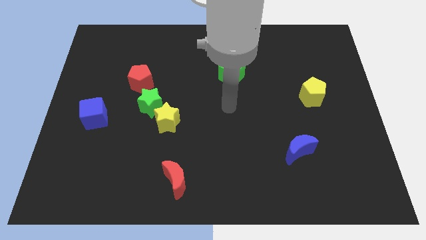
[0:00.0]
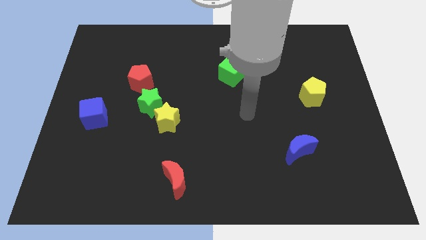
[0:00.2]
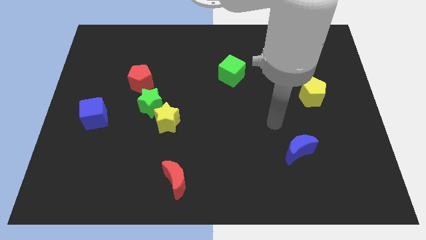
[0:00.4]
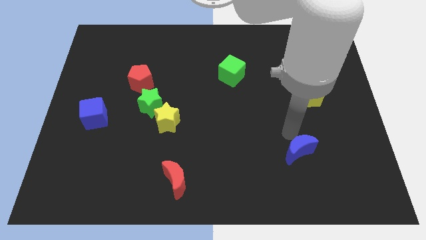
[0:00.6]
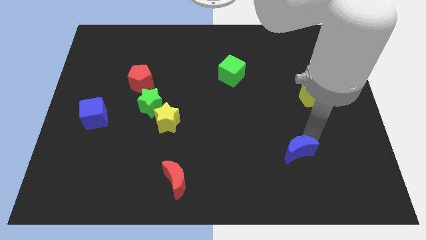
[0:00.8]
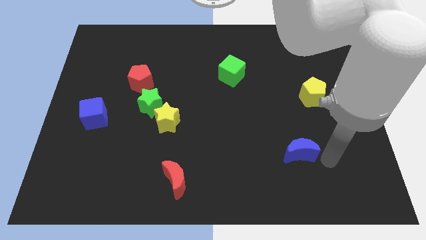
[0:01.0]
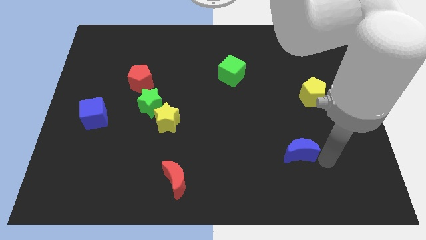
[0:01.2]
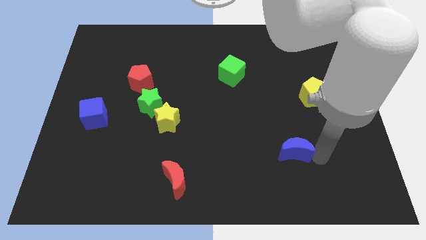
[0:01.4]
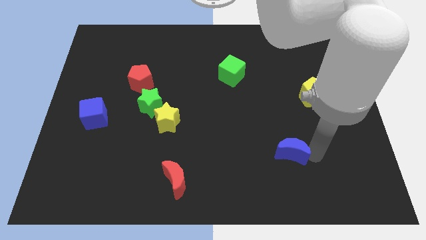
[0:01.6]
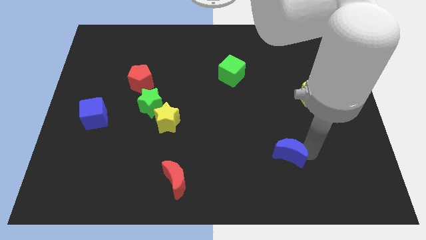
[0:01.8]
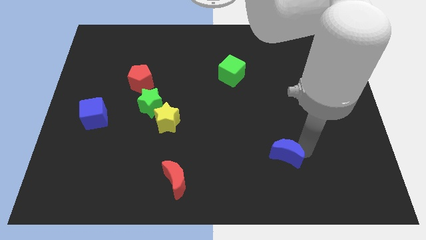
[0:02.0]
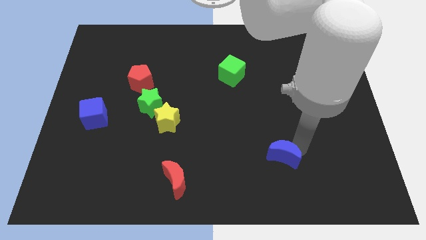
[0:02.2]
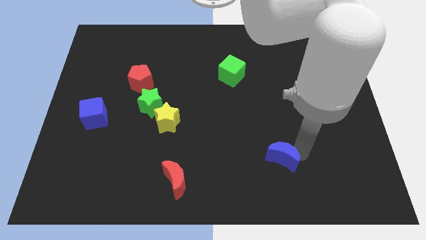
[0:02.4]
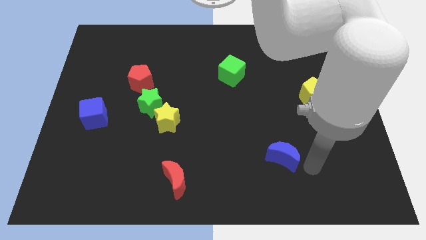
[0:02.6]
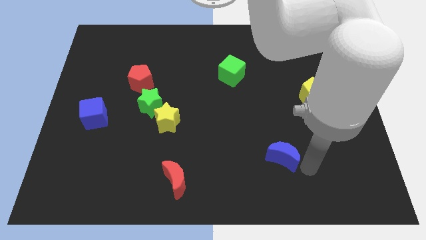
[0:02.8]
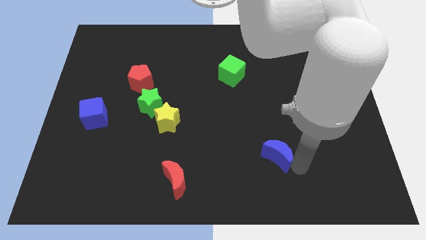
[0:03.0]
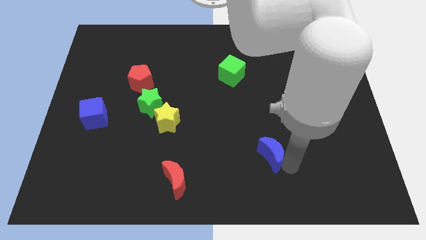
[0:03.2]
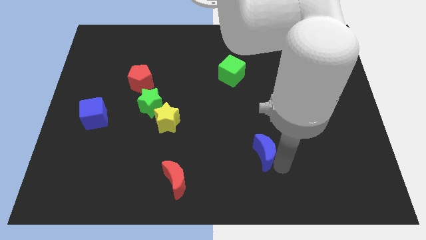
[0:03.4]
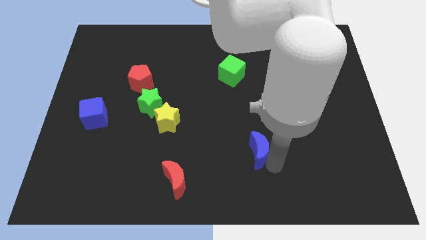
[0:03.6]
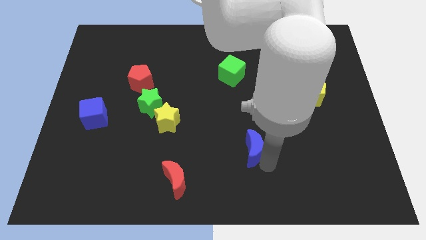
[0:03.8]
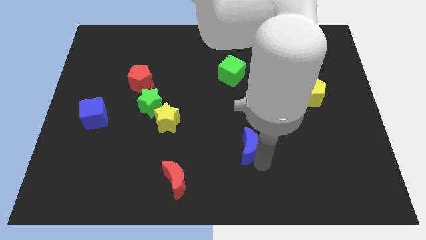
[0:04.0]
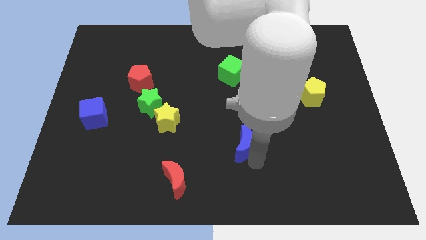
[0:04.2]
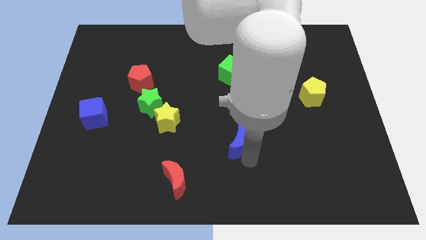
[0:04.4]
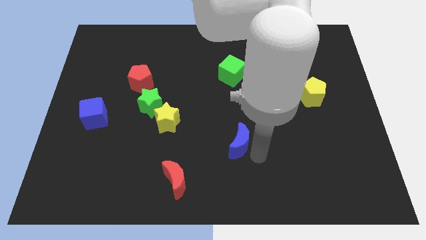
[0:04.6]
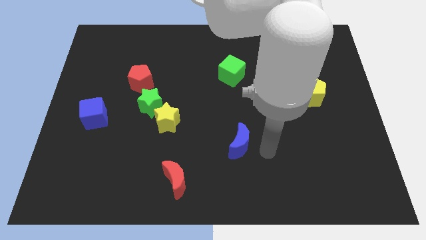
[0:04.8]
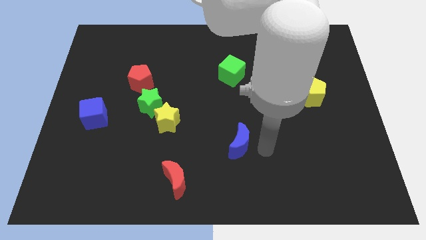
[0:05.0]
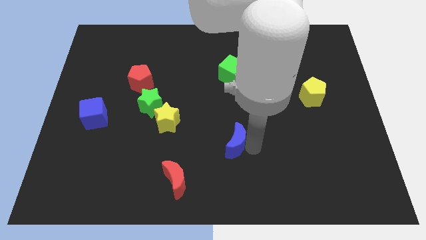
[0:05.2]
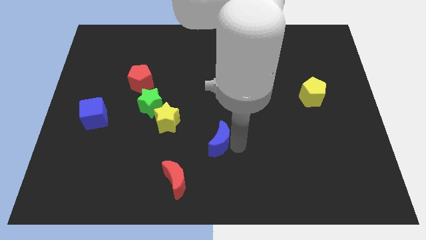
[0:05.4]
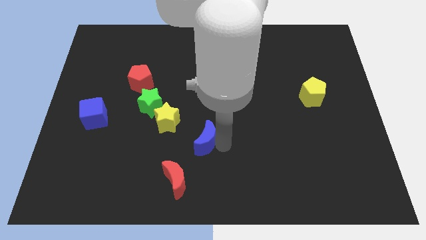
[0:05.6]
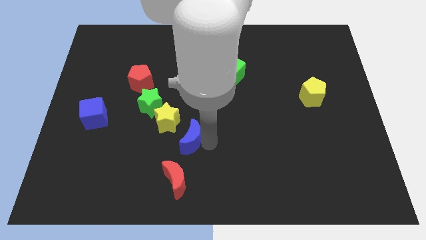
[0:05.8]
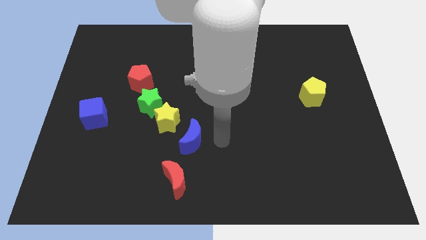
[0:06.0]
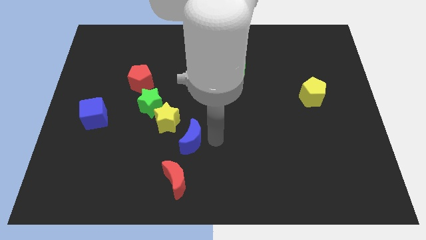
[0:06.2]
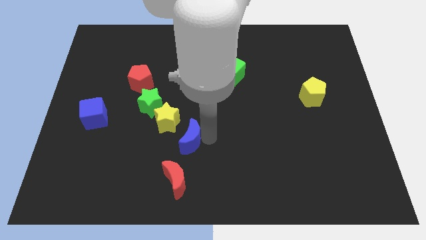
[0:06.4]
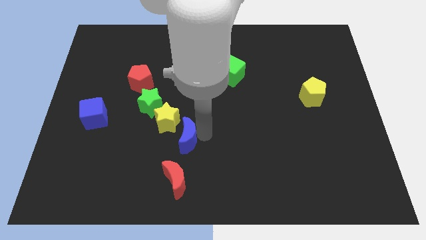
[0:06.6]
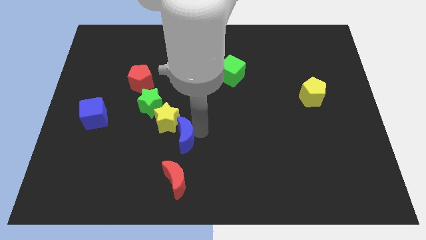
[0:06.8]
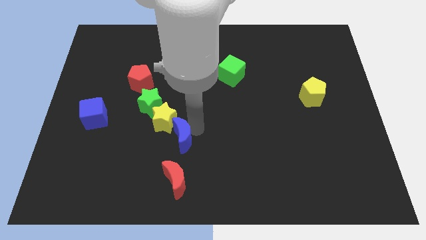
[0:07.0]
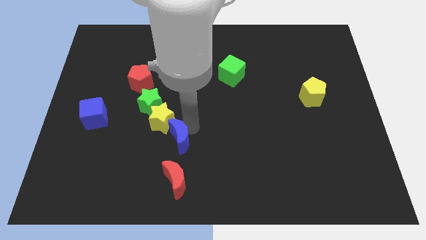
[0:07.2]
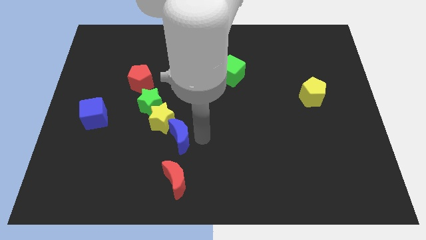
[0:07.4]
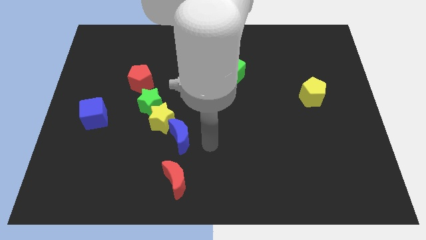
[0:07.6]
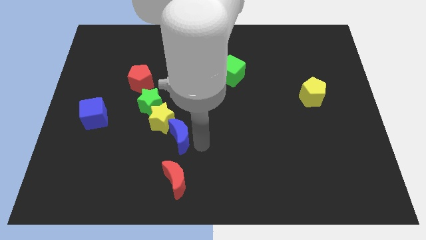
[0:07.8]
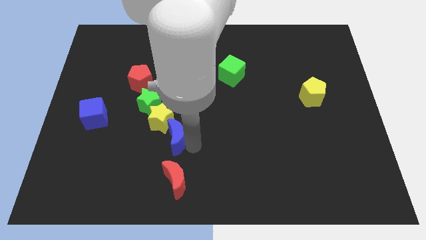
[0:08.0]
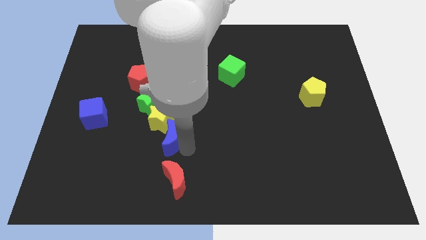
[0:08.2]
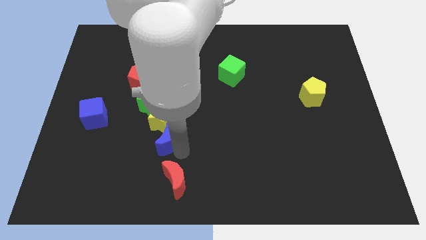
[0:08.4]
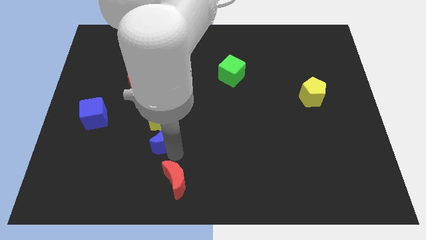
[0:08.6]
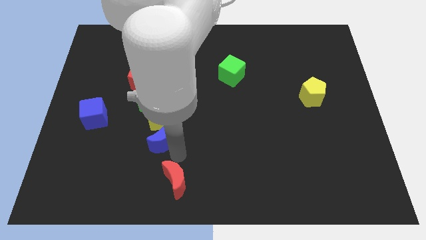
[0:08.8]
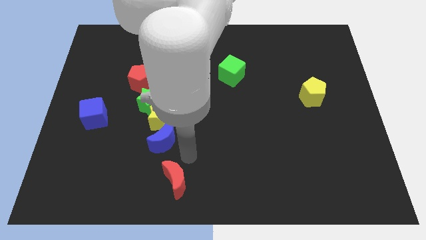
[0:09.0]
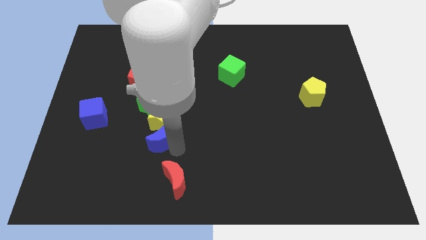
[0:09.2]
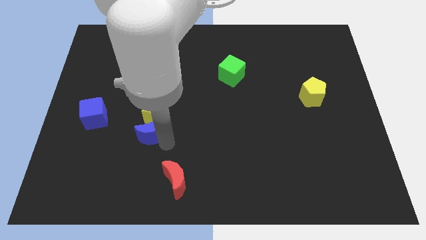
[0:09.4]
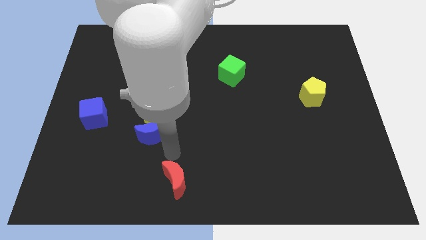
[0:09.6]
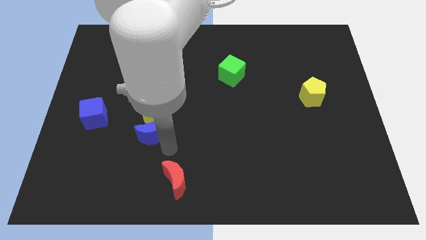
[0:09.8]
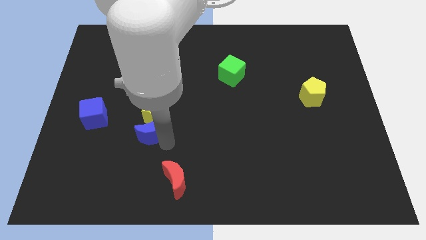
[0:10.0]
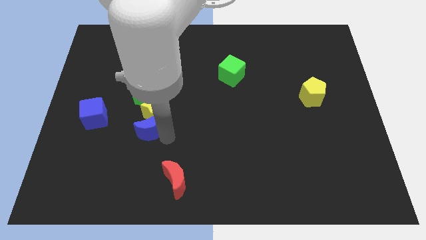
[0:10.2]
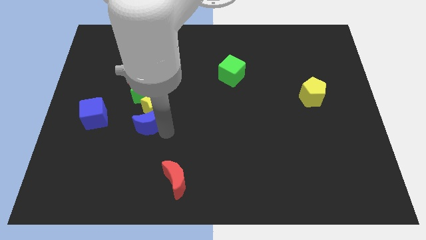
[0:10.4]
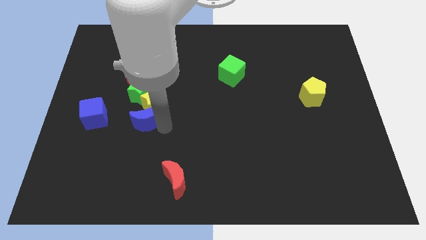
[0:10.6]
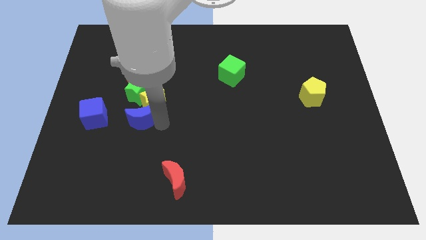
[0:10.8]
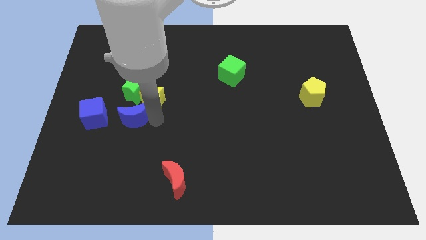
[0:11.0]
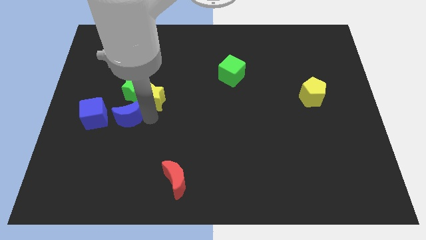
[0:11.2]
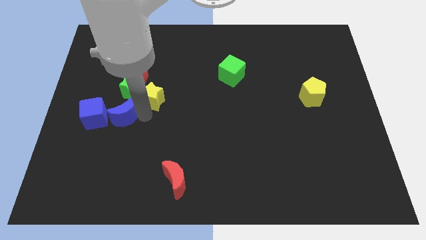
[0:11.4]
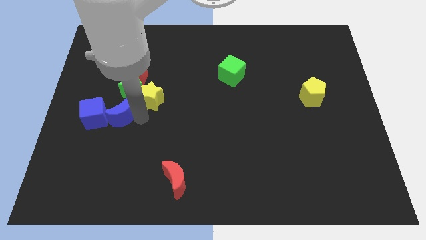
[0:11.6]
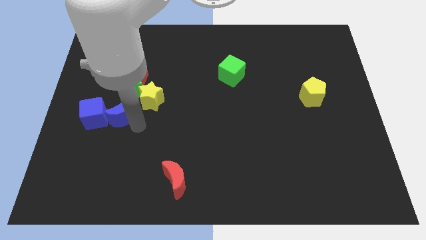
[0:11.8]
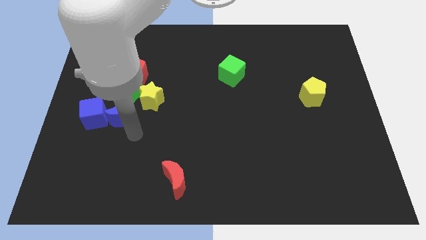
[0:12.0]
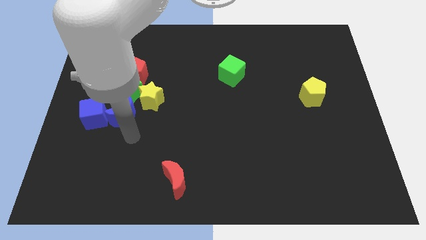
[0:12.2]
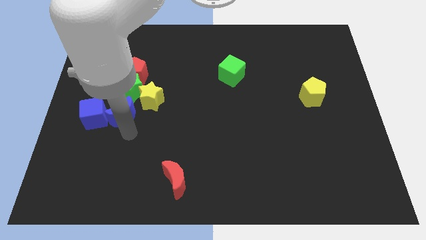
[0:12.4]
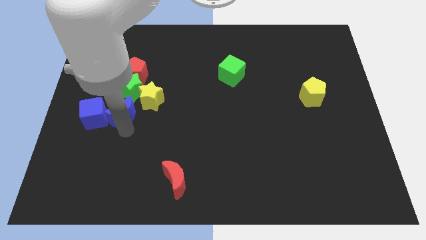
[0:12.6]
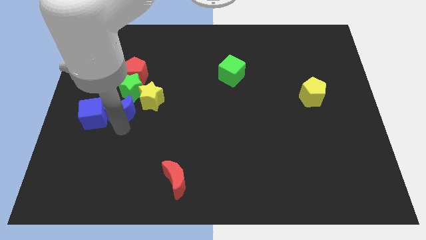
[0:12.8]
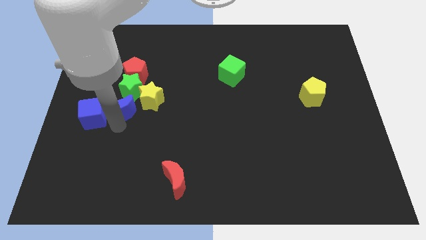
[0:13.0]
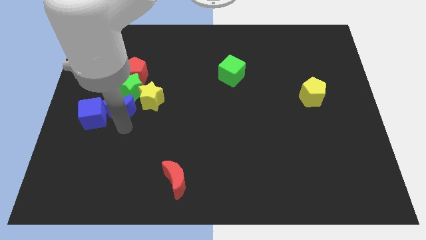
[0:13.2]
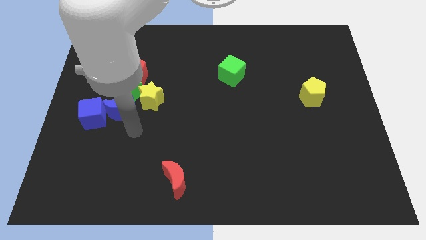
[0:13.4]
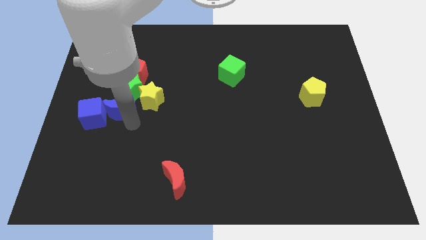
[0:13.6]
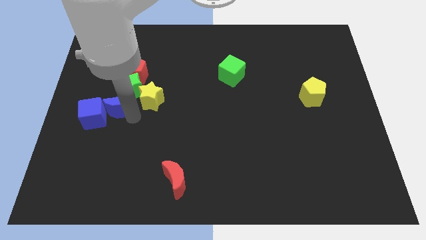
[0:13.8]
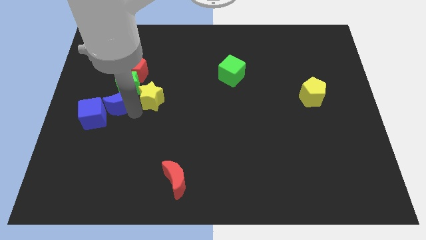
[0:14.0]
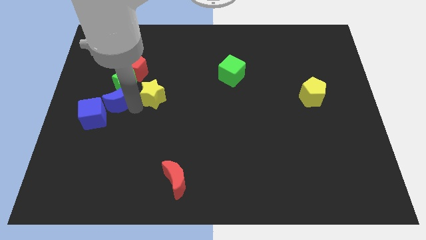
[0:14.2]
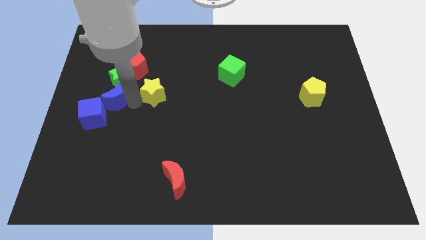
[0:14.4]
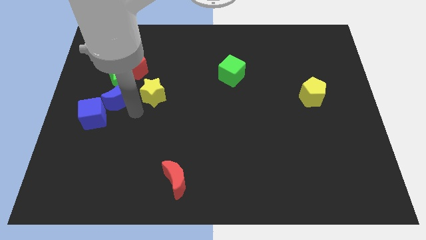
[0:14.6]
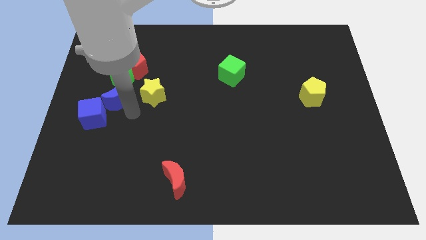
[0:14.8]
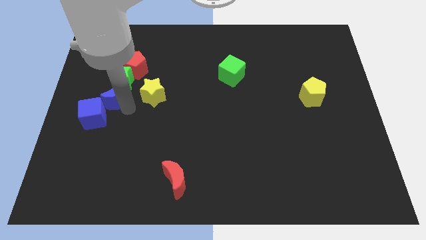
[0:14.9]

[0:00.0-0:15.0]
put the blue moon above the blue cube
